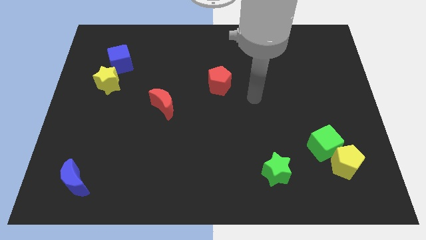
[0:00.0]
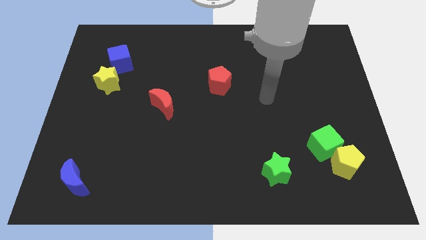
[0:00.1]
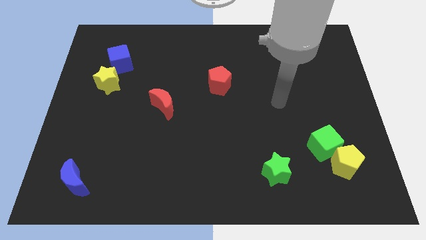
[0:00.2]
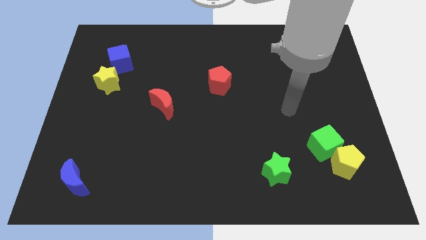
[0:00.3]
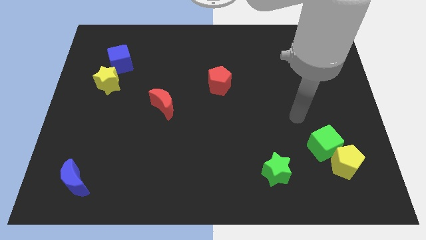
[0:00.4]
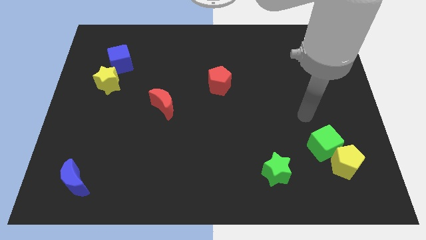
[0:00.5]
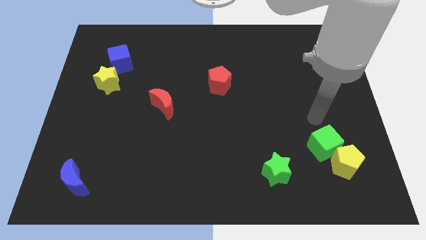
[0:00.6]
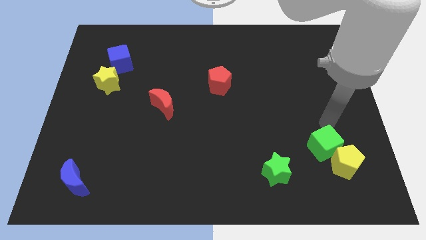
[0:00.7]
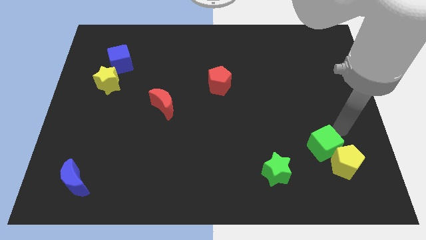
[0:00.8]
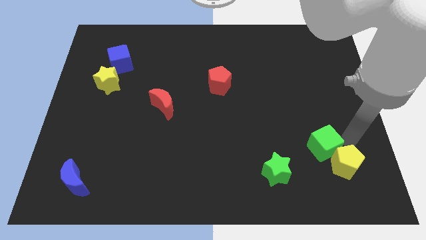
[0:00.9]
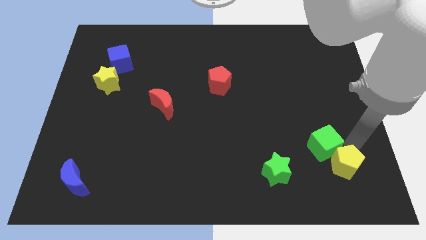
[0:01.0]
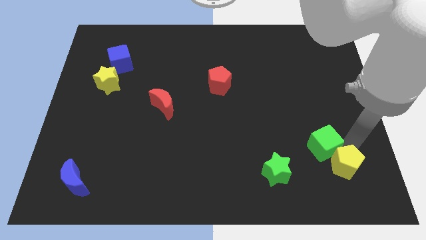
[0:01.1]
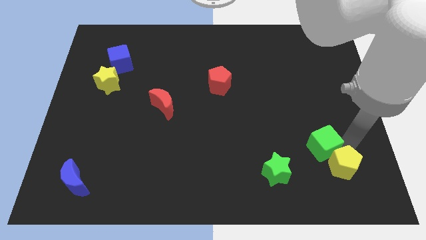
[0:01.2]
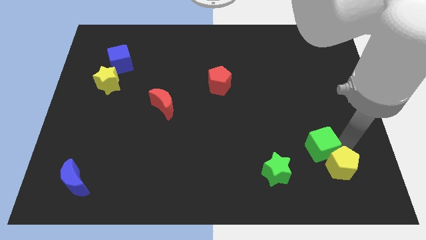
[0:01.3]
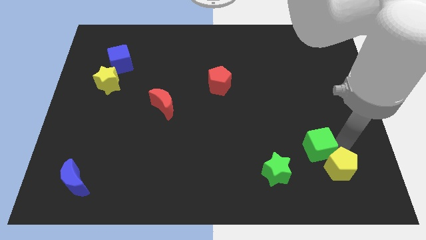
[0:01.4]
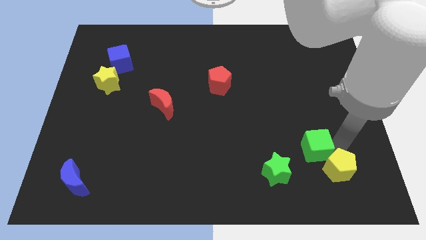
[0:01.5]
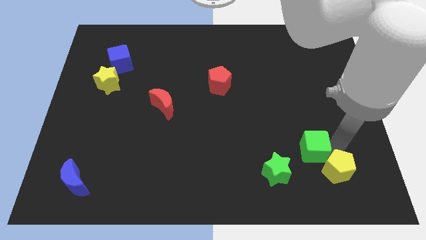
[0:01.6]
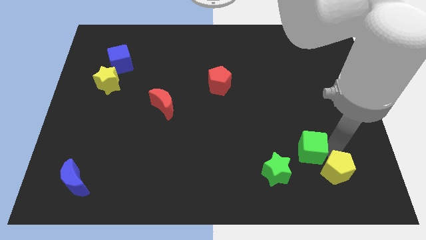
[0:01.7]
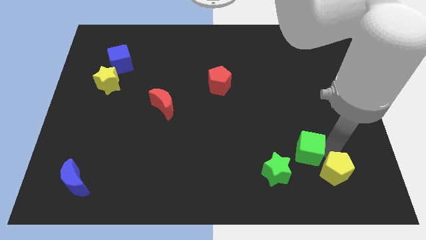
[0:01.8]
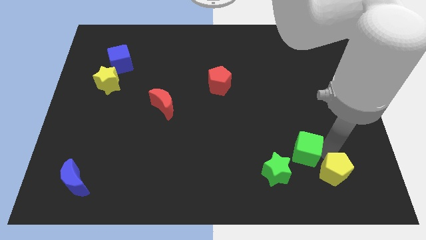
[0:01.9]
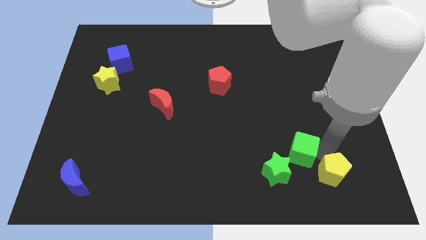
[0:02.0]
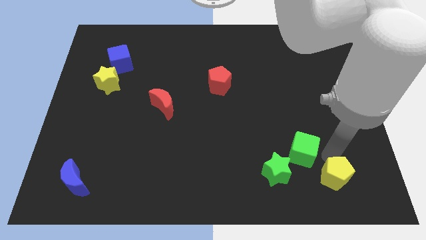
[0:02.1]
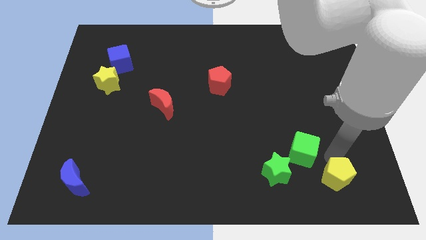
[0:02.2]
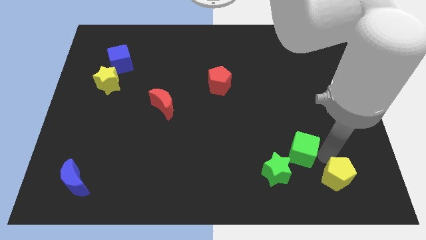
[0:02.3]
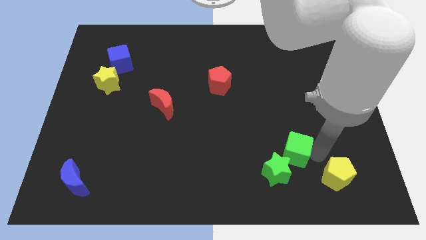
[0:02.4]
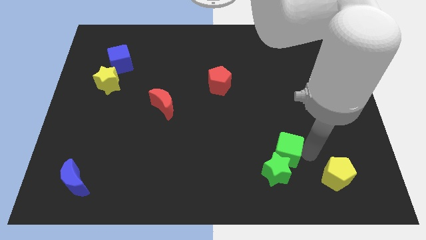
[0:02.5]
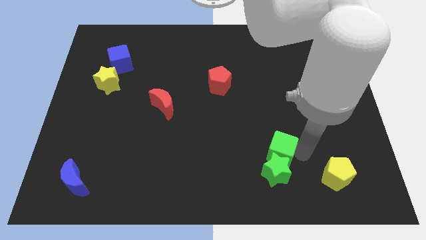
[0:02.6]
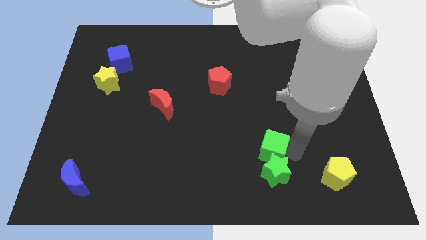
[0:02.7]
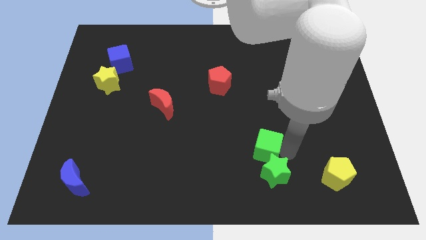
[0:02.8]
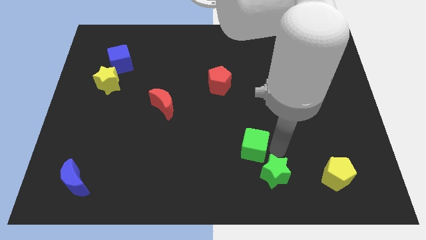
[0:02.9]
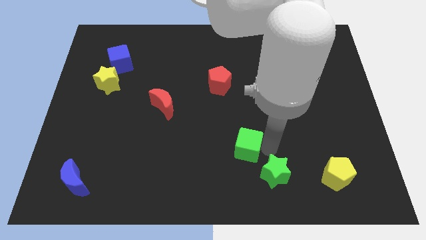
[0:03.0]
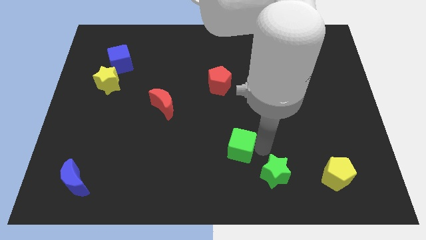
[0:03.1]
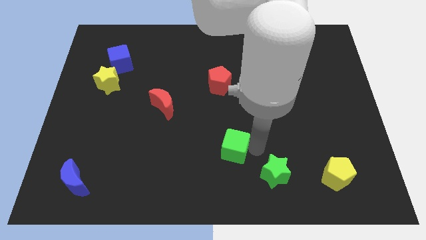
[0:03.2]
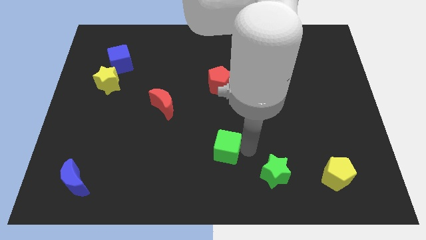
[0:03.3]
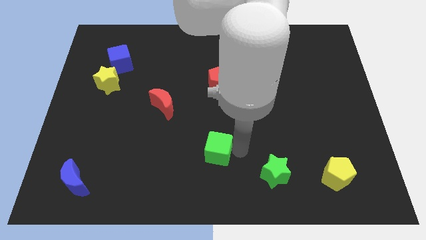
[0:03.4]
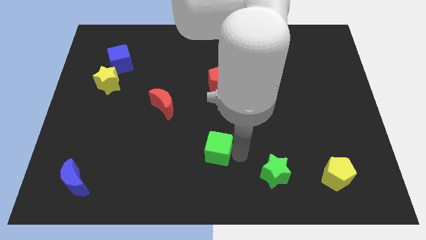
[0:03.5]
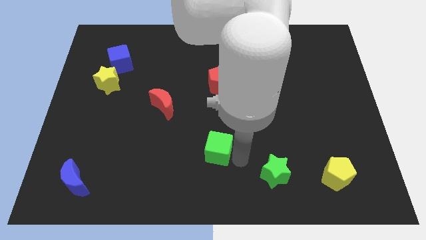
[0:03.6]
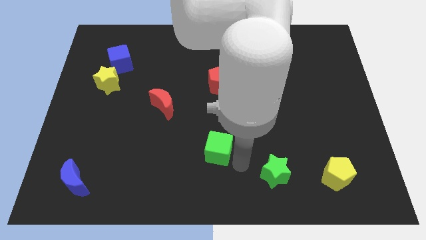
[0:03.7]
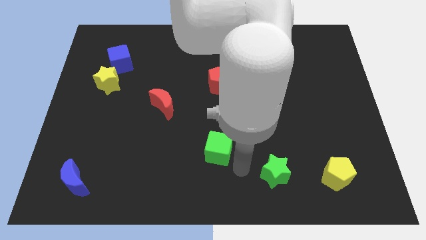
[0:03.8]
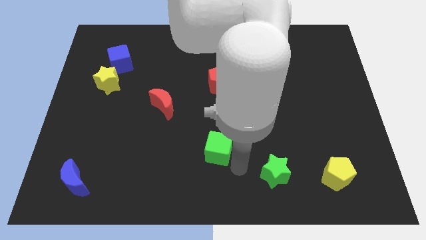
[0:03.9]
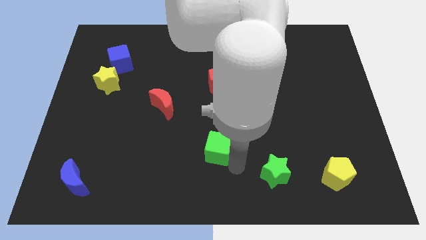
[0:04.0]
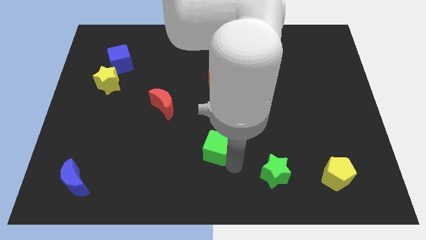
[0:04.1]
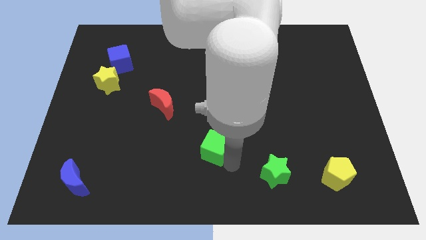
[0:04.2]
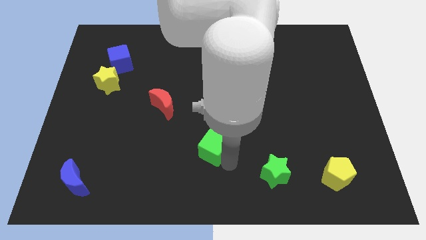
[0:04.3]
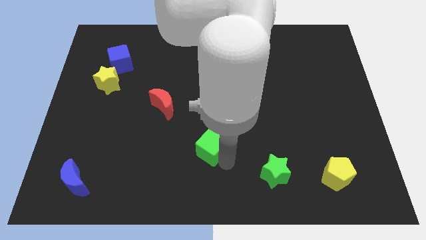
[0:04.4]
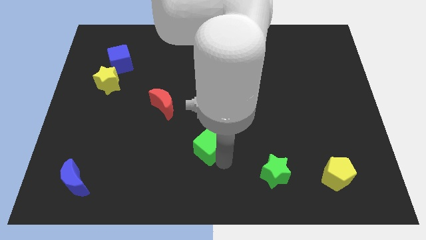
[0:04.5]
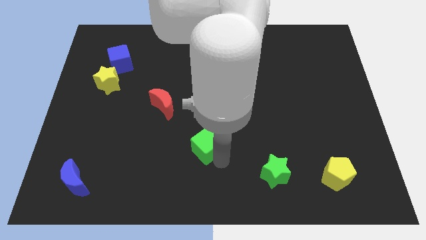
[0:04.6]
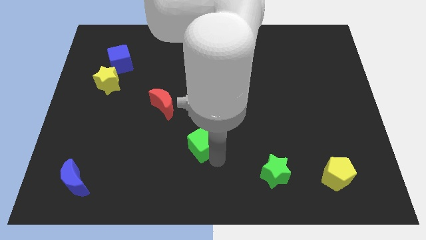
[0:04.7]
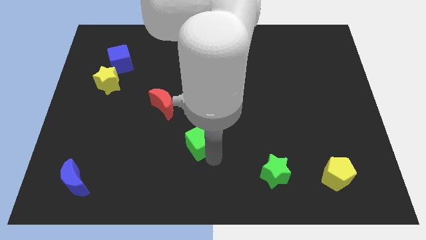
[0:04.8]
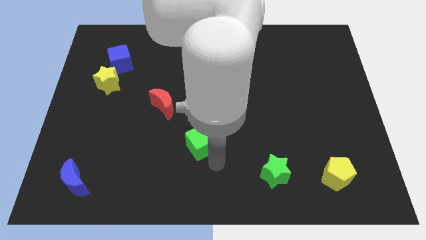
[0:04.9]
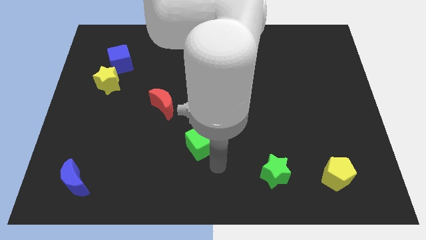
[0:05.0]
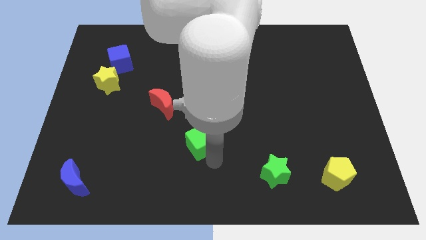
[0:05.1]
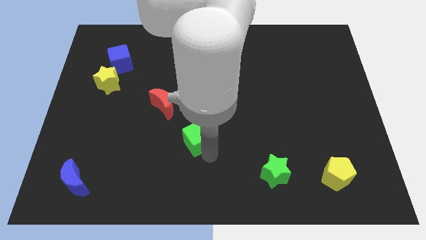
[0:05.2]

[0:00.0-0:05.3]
push the green cube to the bottom right side of the red moon

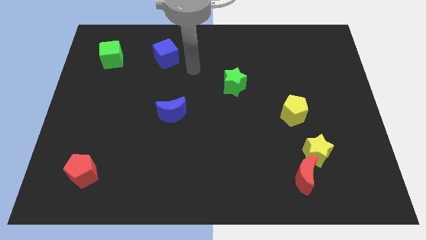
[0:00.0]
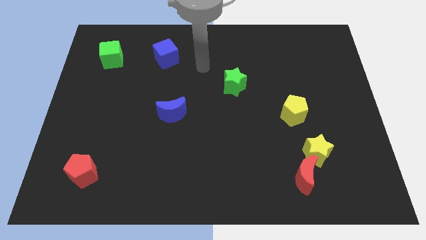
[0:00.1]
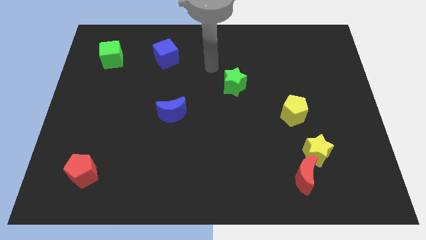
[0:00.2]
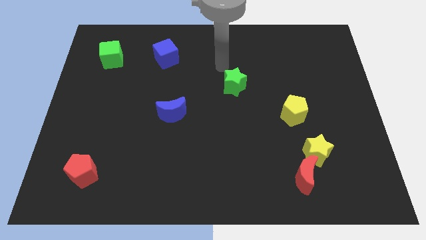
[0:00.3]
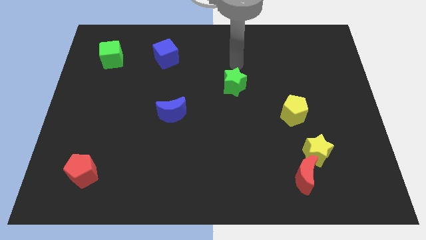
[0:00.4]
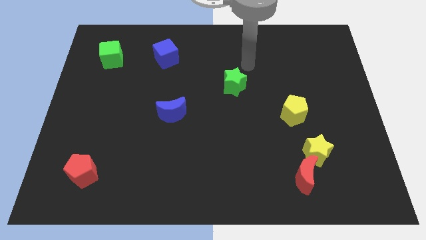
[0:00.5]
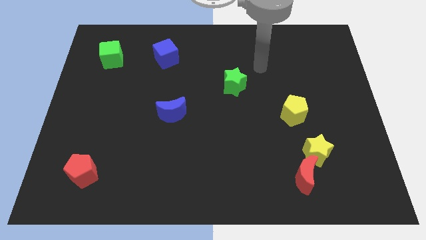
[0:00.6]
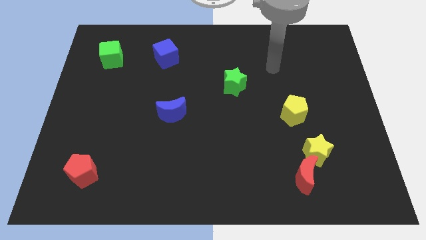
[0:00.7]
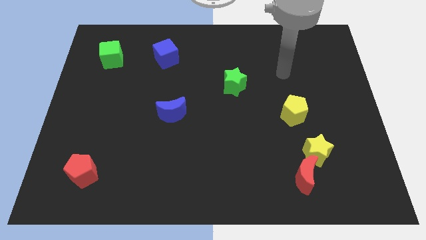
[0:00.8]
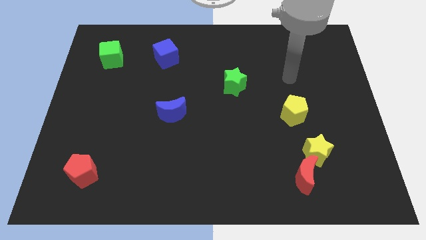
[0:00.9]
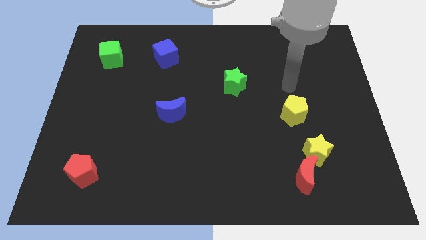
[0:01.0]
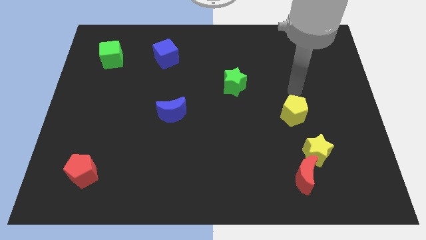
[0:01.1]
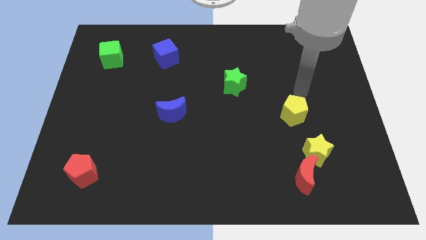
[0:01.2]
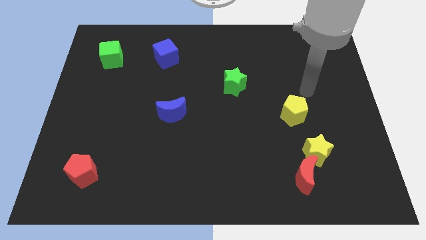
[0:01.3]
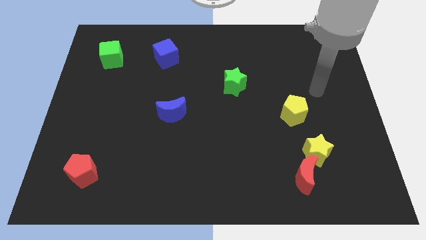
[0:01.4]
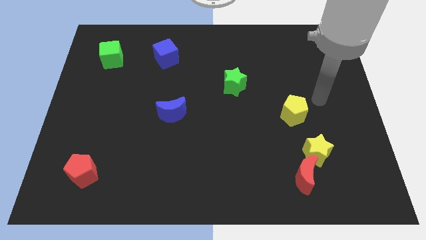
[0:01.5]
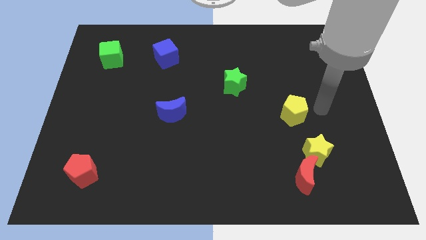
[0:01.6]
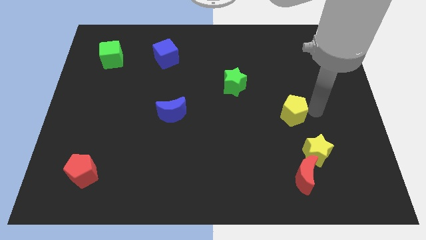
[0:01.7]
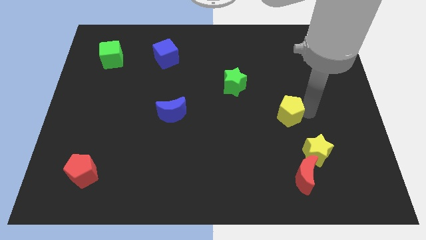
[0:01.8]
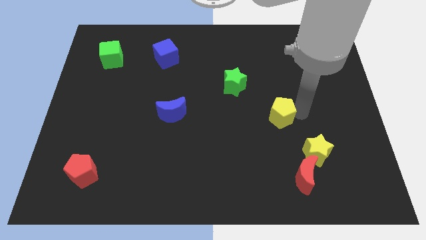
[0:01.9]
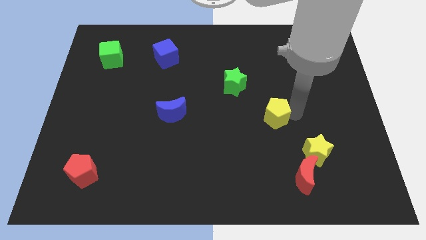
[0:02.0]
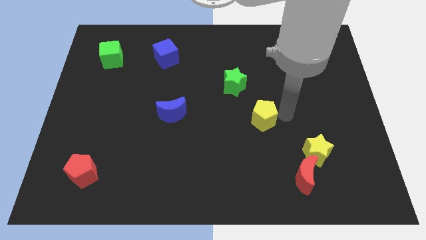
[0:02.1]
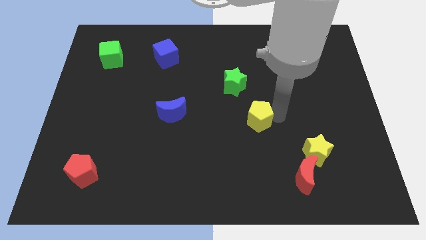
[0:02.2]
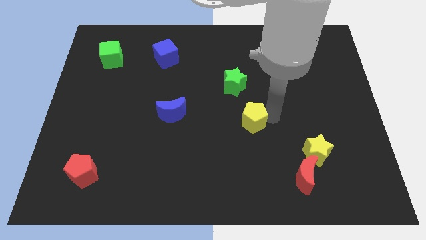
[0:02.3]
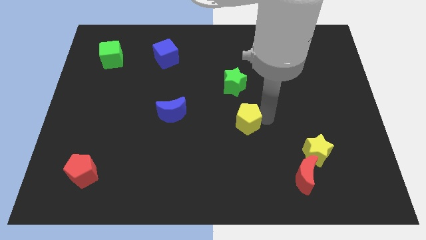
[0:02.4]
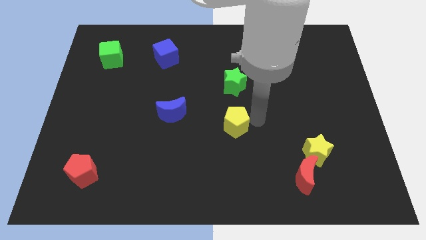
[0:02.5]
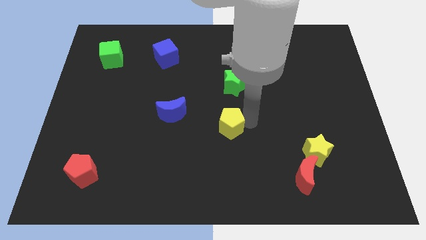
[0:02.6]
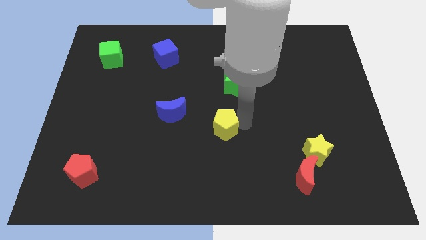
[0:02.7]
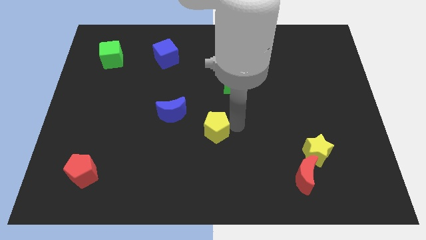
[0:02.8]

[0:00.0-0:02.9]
put the yellow pentagon to the bottom right side of the blue moon
